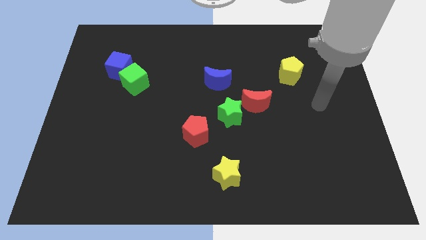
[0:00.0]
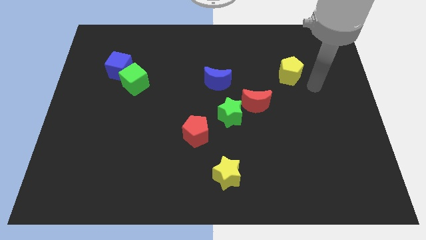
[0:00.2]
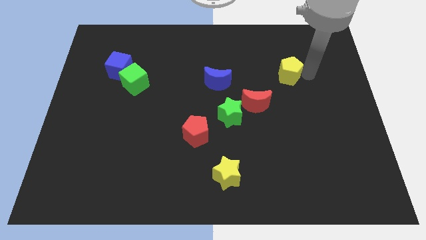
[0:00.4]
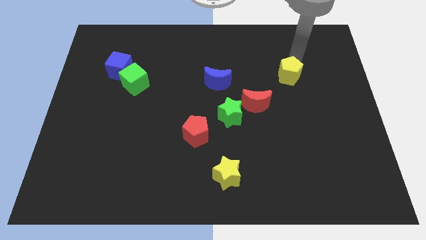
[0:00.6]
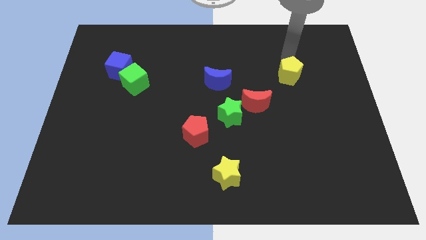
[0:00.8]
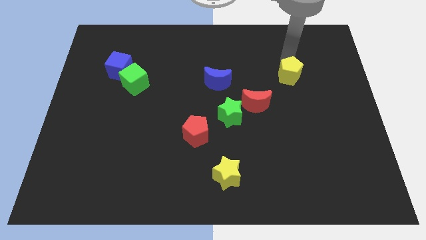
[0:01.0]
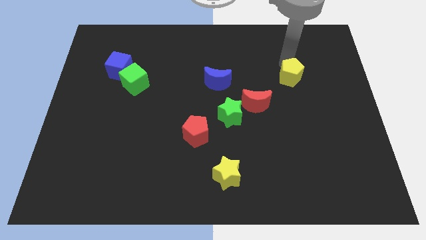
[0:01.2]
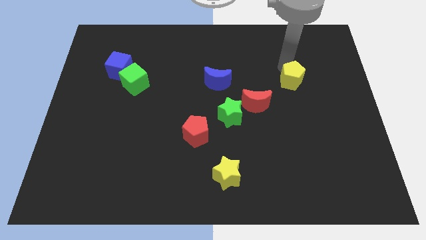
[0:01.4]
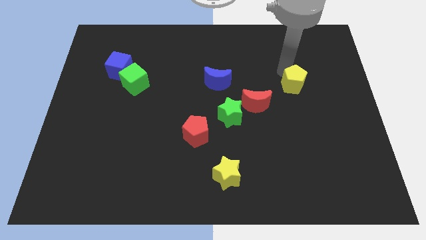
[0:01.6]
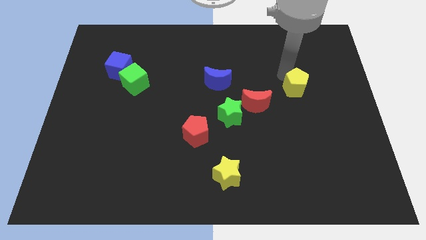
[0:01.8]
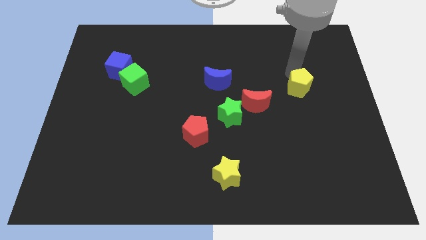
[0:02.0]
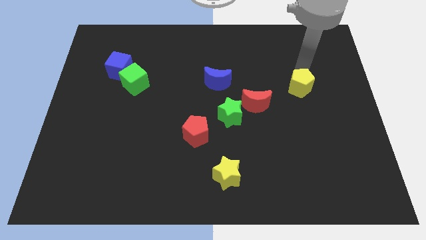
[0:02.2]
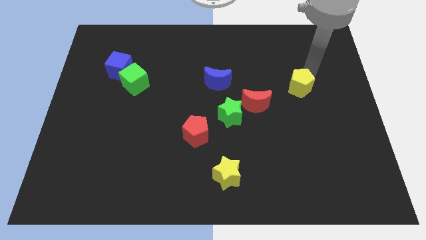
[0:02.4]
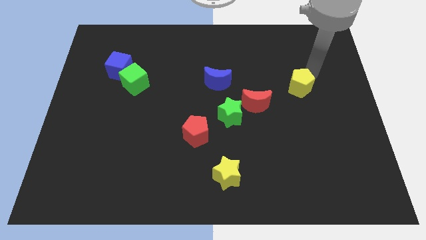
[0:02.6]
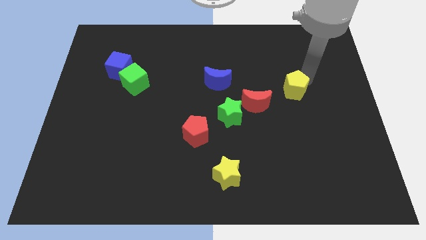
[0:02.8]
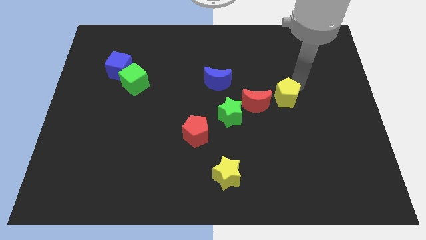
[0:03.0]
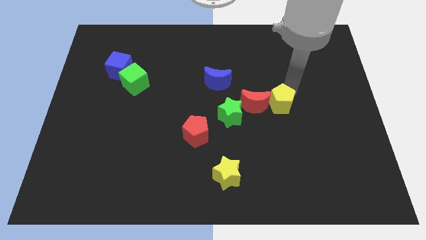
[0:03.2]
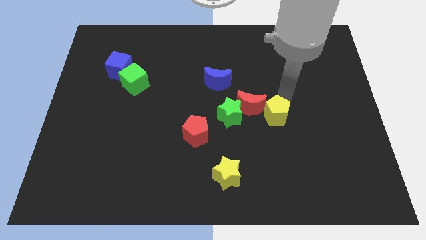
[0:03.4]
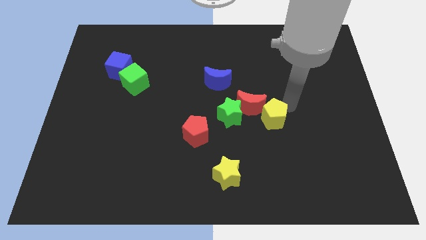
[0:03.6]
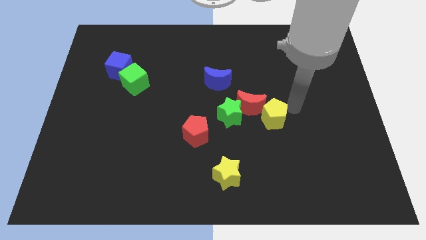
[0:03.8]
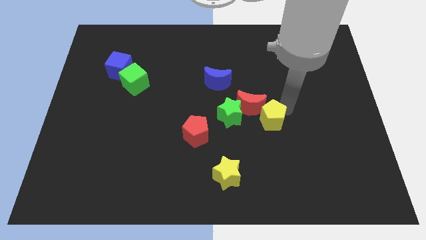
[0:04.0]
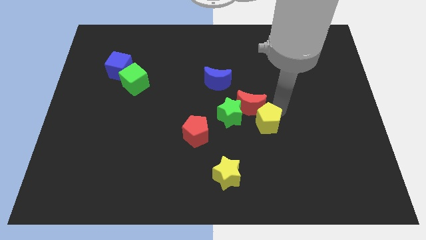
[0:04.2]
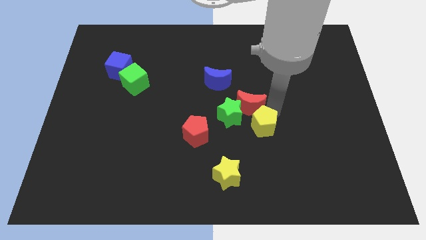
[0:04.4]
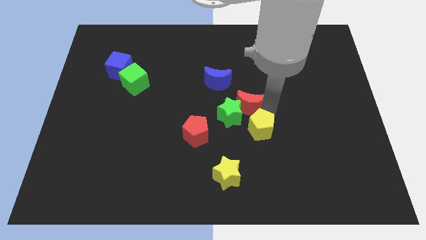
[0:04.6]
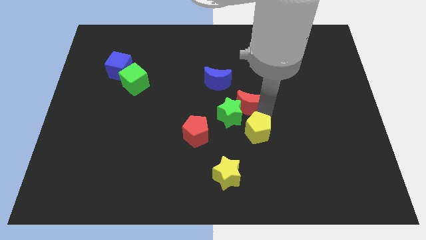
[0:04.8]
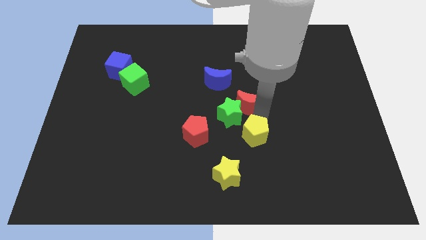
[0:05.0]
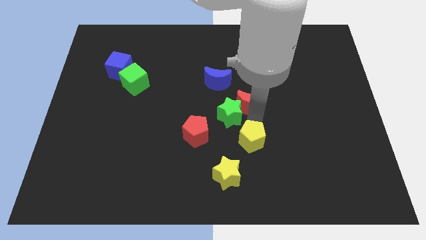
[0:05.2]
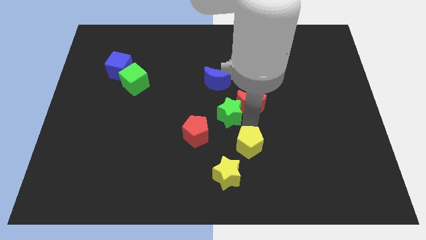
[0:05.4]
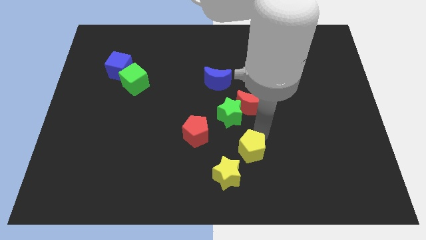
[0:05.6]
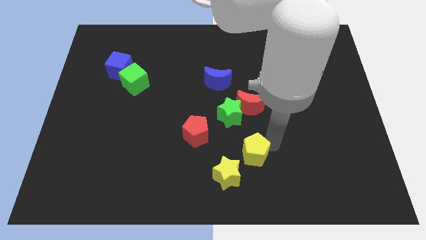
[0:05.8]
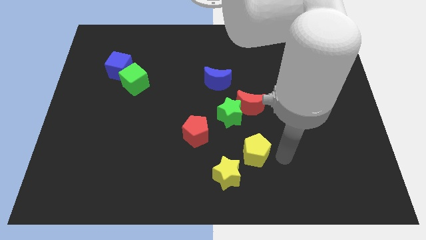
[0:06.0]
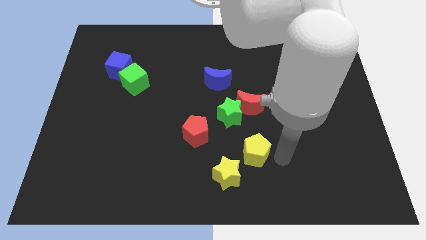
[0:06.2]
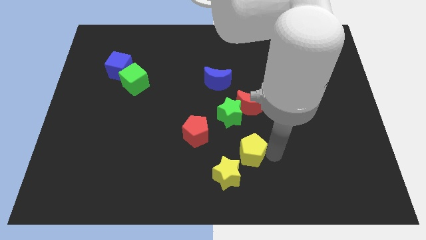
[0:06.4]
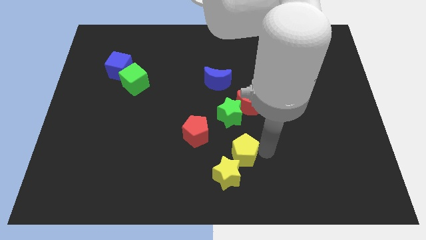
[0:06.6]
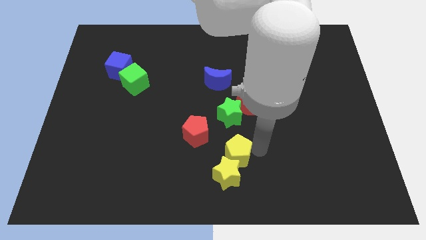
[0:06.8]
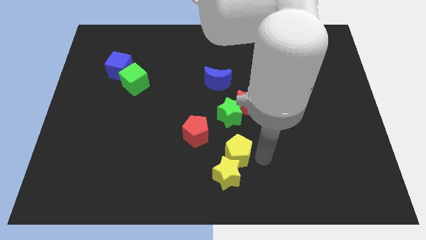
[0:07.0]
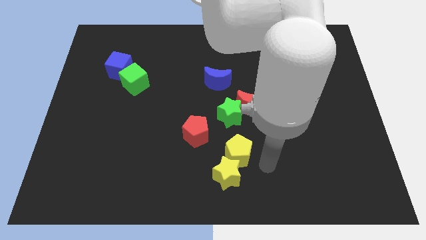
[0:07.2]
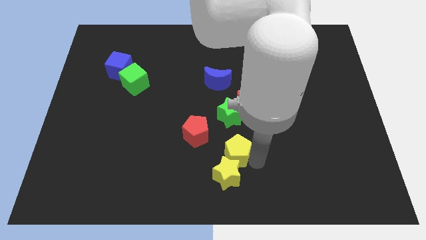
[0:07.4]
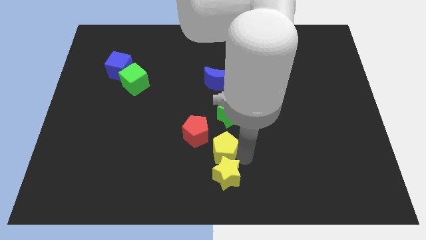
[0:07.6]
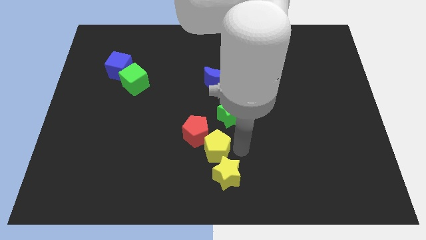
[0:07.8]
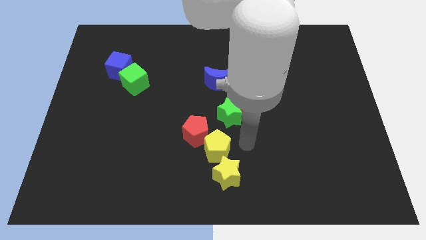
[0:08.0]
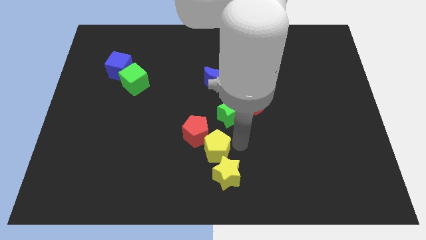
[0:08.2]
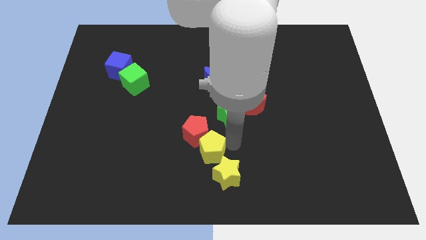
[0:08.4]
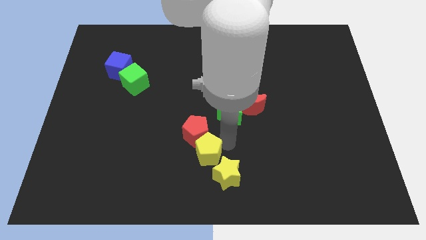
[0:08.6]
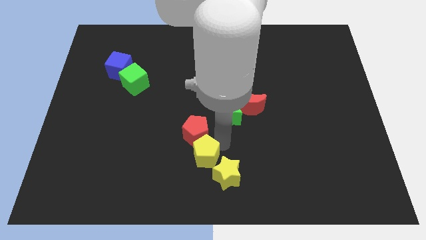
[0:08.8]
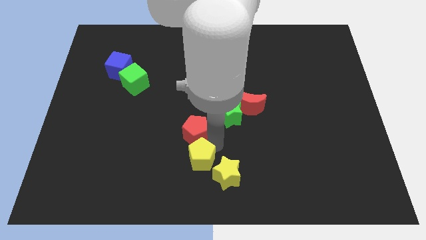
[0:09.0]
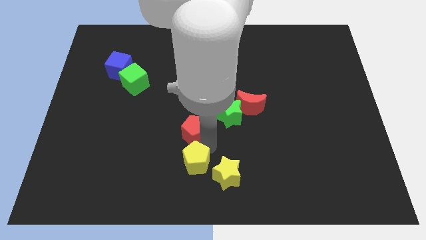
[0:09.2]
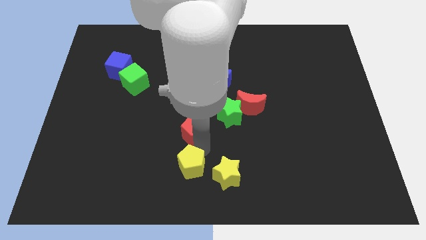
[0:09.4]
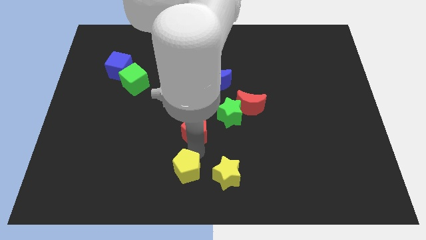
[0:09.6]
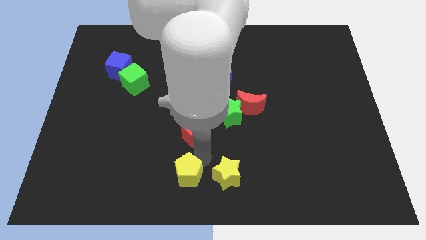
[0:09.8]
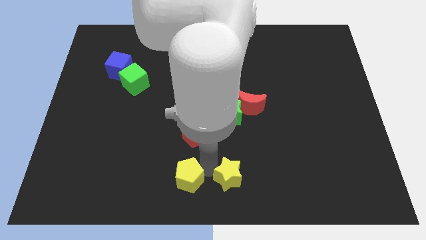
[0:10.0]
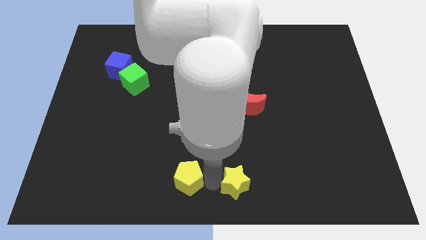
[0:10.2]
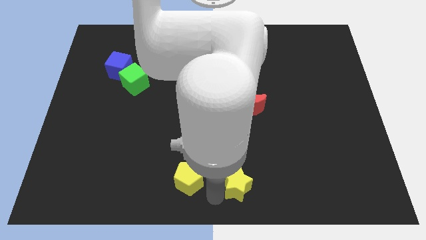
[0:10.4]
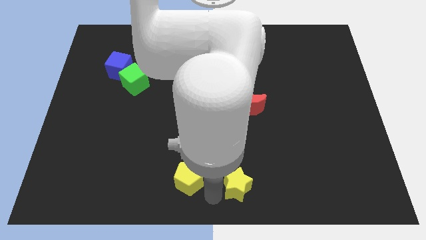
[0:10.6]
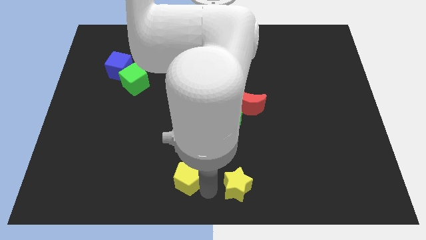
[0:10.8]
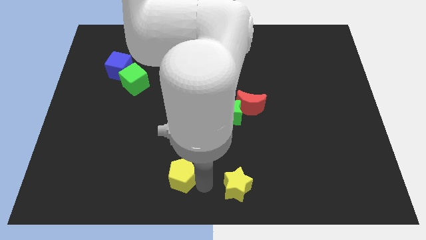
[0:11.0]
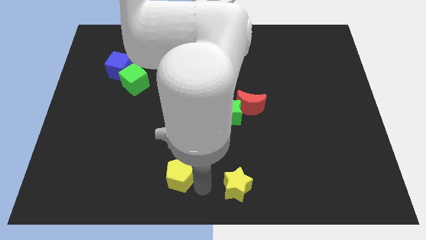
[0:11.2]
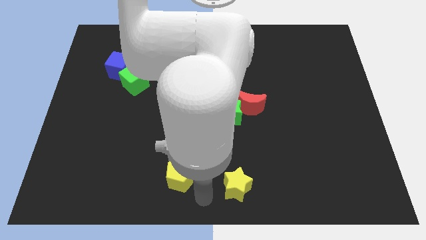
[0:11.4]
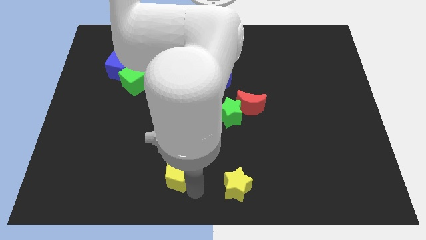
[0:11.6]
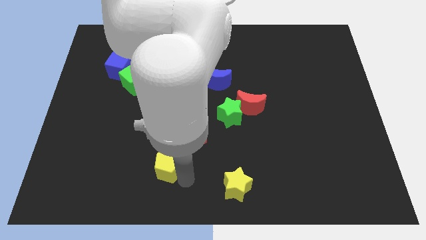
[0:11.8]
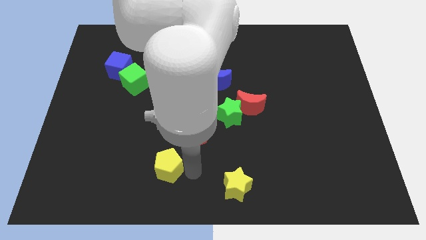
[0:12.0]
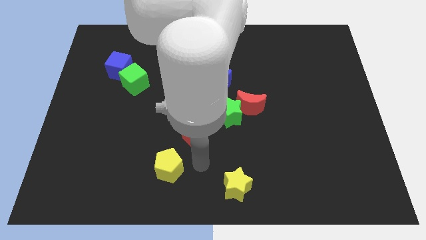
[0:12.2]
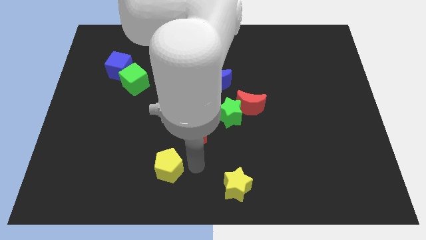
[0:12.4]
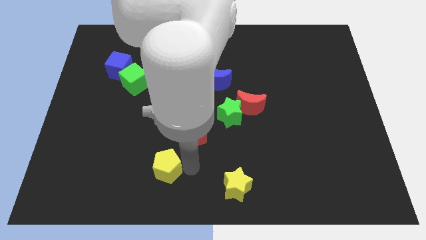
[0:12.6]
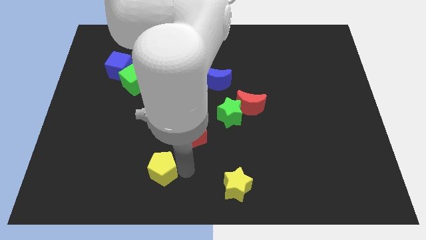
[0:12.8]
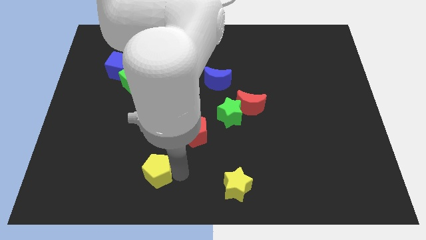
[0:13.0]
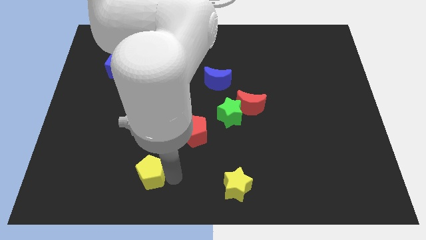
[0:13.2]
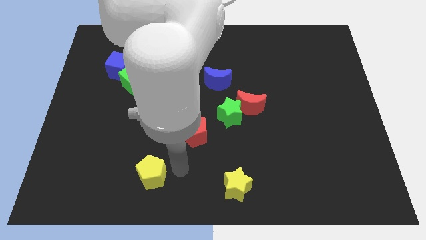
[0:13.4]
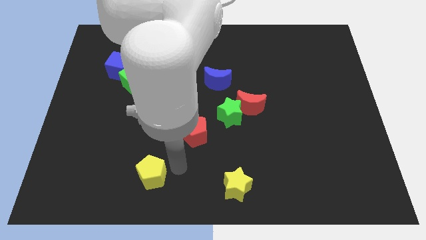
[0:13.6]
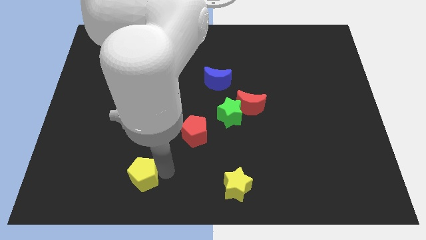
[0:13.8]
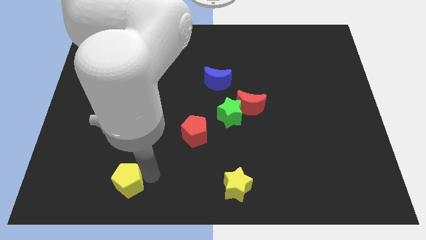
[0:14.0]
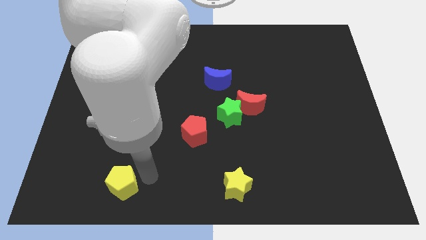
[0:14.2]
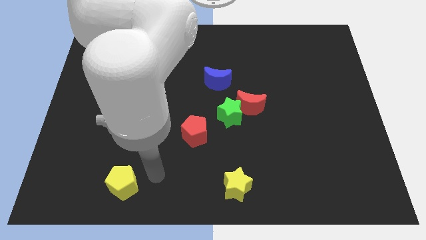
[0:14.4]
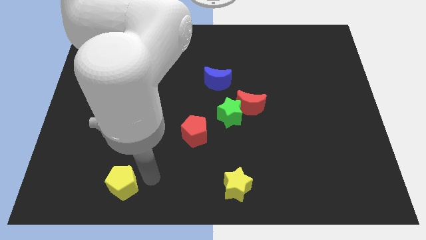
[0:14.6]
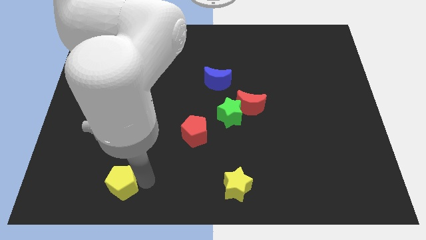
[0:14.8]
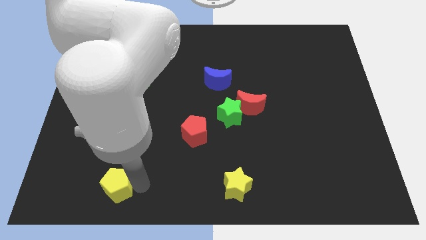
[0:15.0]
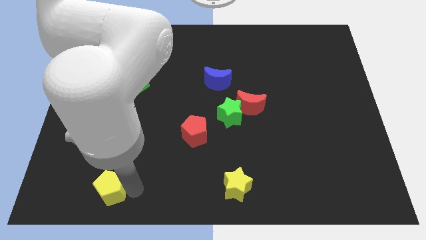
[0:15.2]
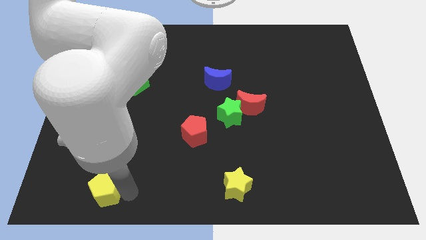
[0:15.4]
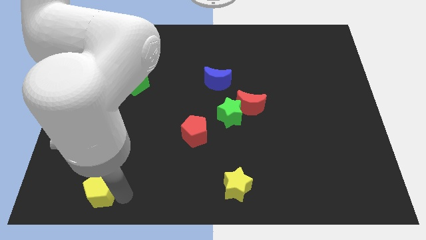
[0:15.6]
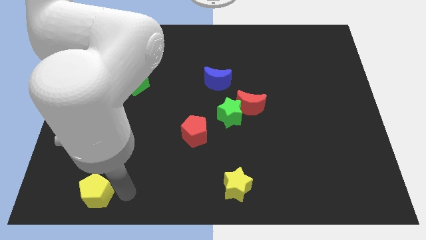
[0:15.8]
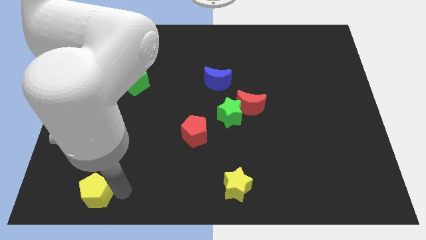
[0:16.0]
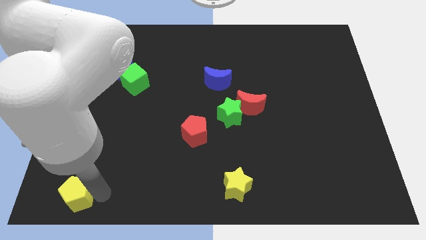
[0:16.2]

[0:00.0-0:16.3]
push the yellow pentagon to the bottom left of the board
